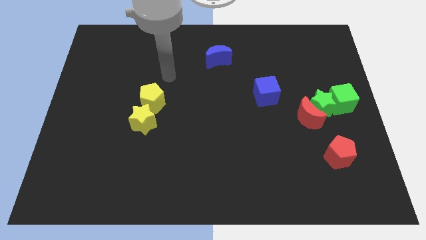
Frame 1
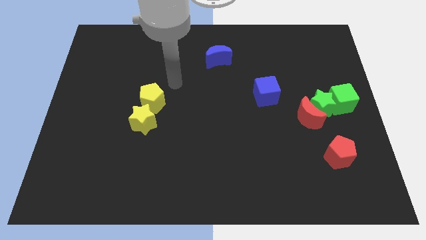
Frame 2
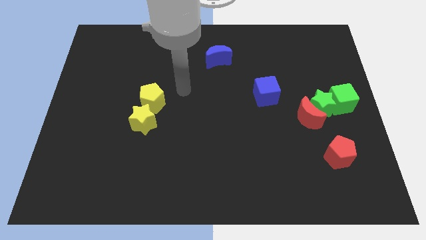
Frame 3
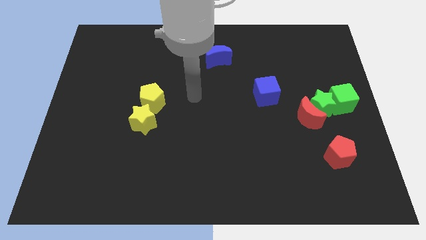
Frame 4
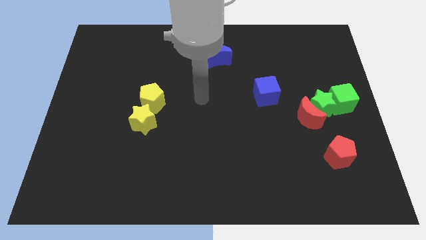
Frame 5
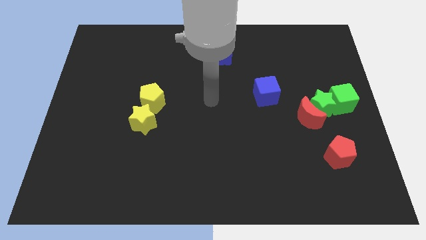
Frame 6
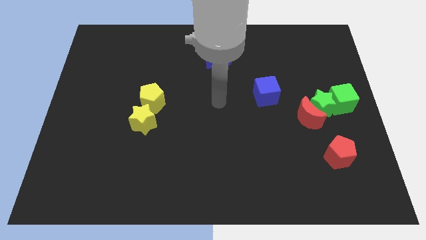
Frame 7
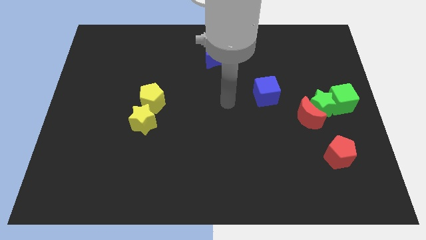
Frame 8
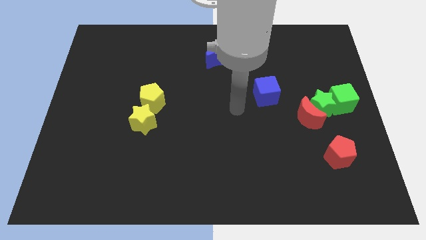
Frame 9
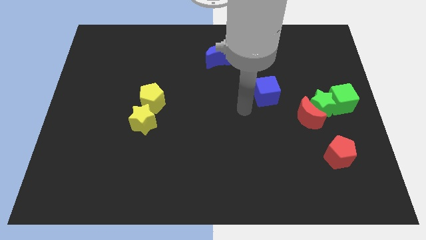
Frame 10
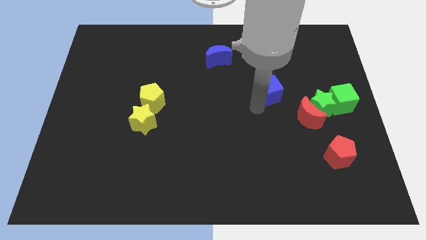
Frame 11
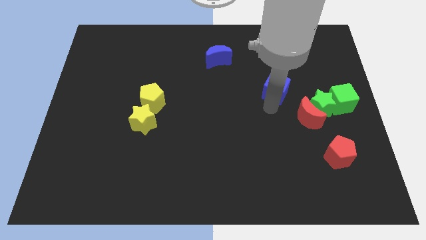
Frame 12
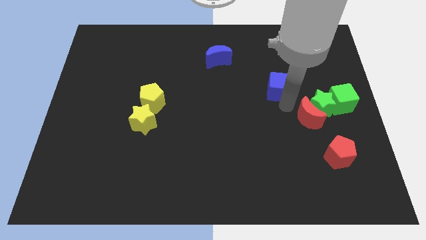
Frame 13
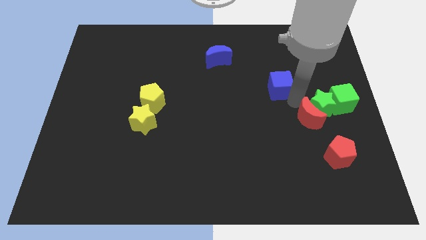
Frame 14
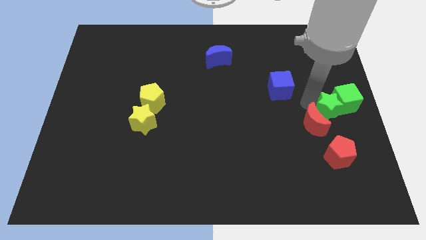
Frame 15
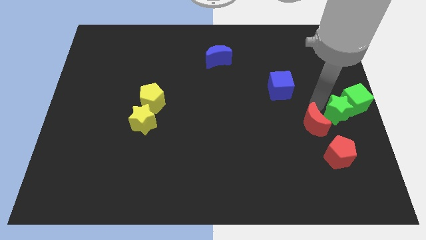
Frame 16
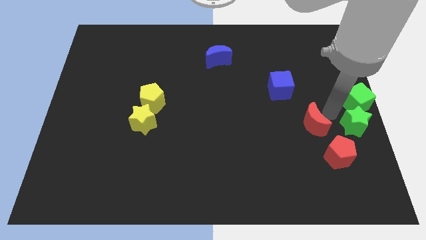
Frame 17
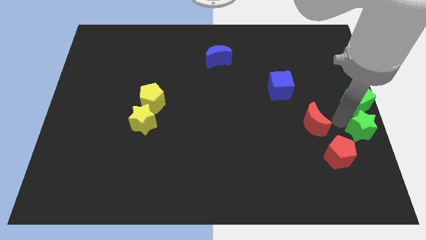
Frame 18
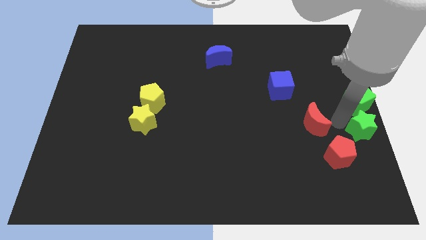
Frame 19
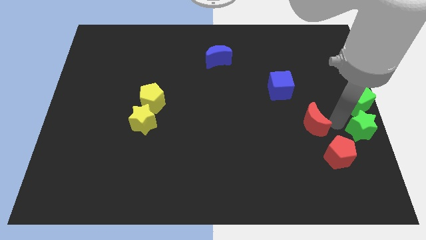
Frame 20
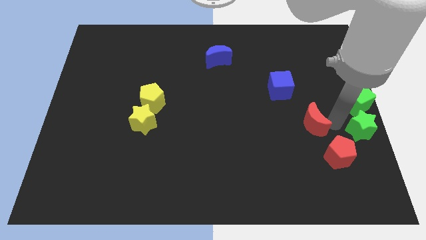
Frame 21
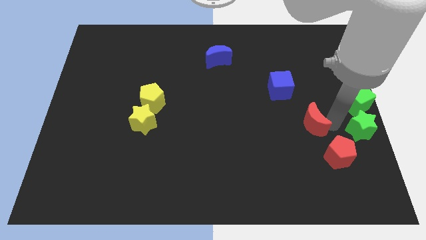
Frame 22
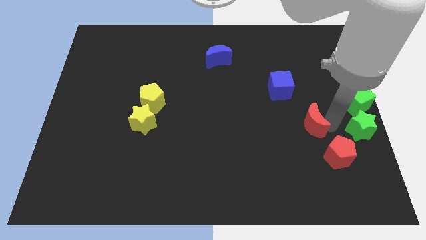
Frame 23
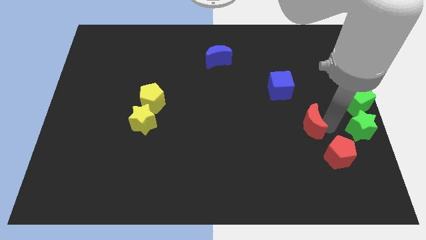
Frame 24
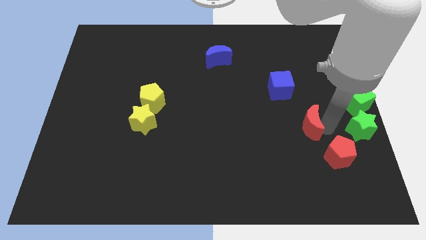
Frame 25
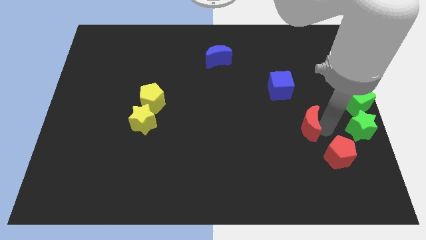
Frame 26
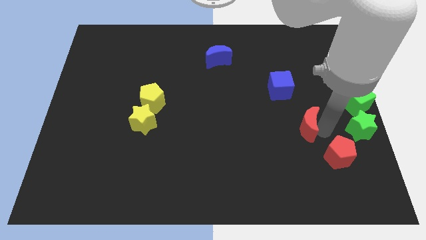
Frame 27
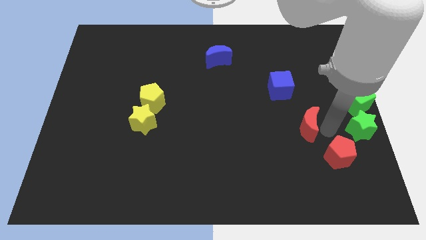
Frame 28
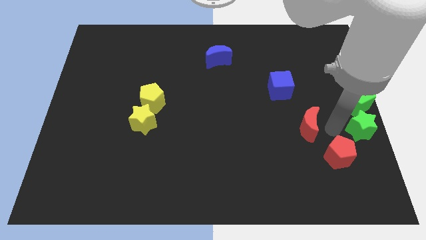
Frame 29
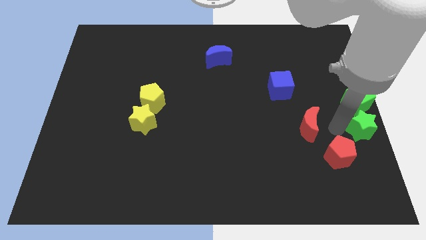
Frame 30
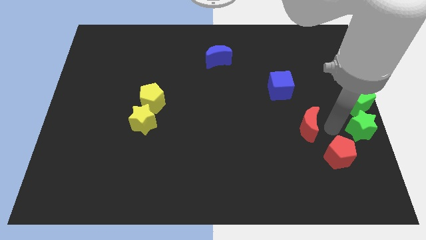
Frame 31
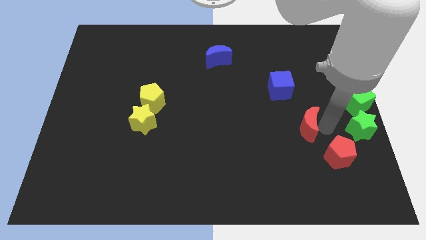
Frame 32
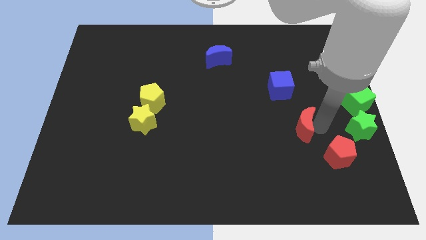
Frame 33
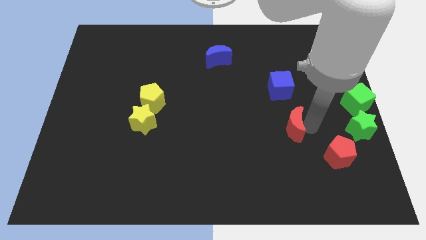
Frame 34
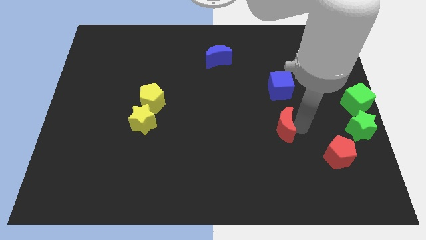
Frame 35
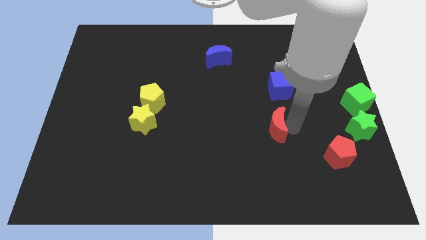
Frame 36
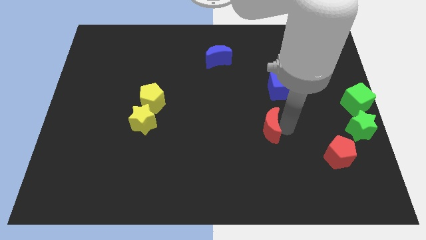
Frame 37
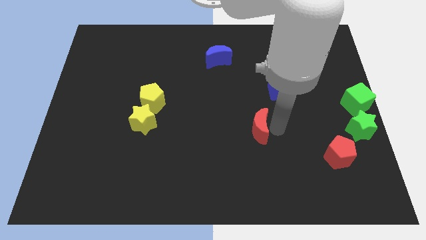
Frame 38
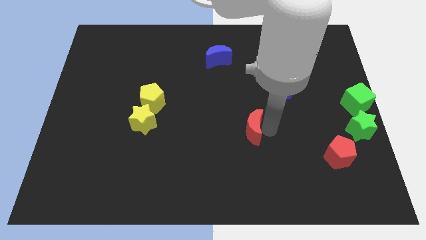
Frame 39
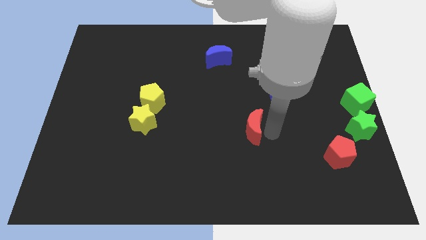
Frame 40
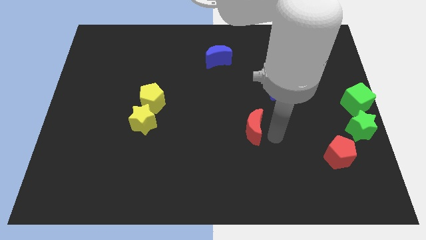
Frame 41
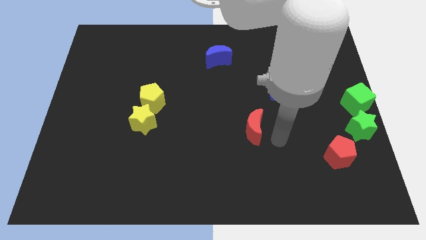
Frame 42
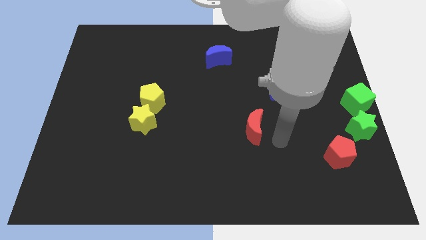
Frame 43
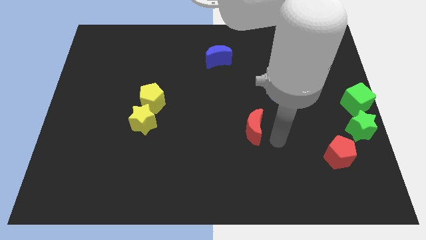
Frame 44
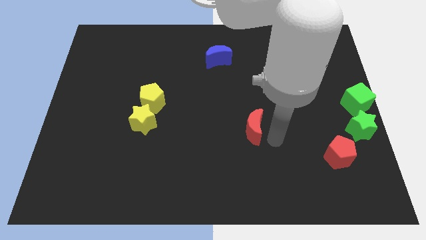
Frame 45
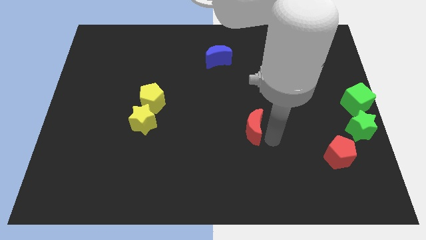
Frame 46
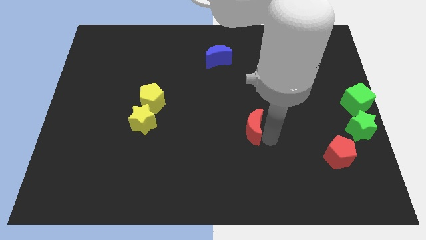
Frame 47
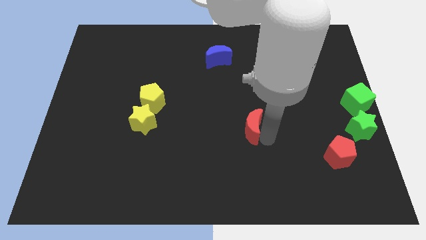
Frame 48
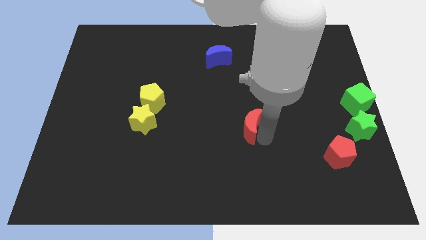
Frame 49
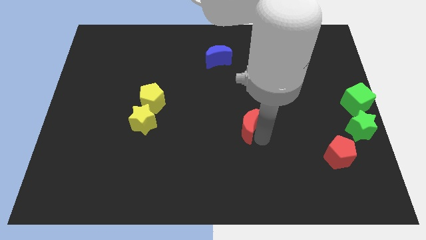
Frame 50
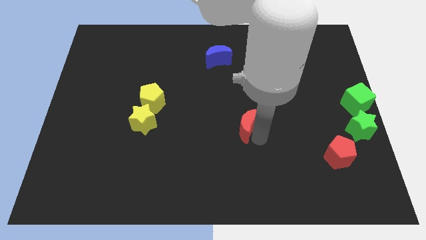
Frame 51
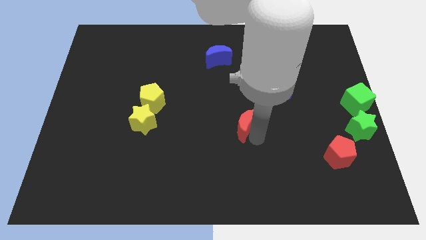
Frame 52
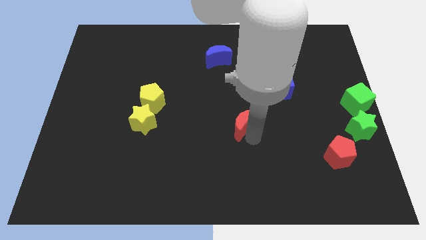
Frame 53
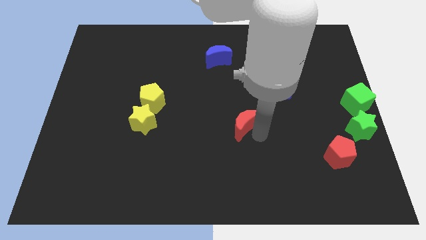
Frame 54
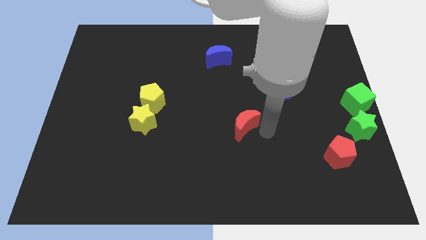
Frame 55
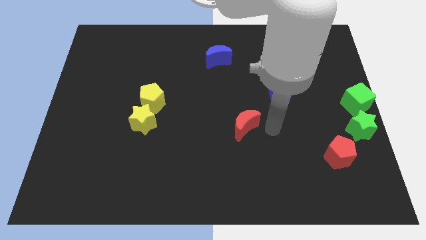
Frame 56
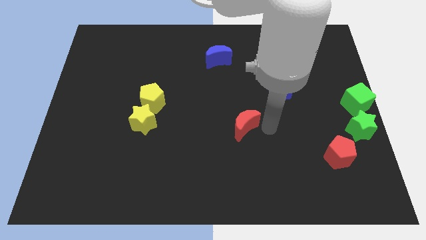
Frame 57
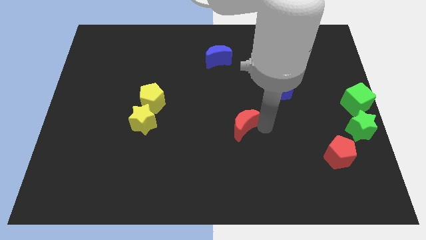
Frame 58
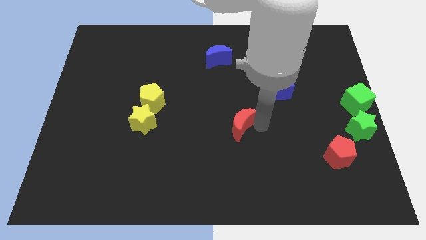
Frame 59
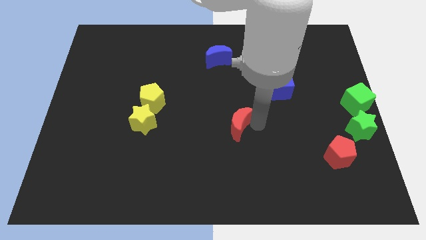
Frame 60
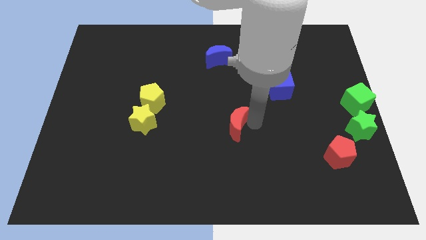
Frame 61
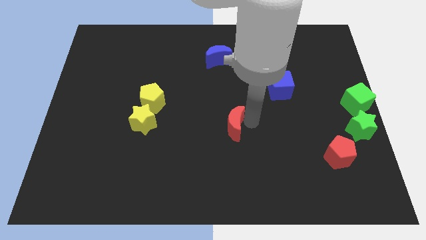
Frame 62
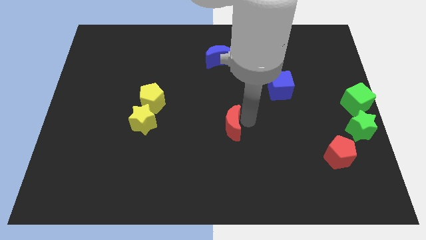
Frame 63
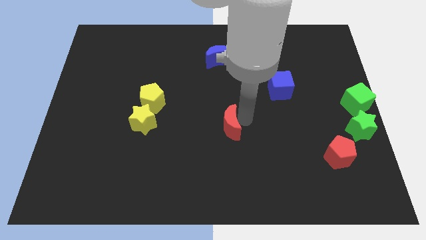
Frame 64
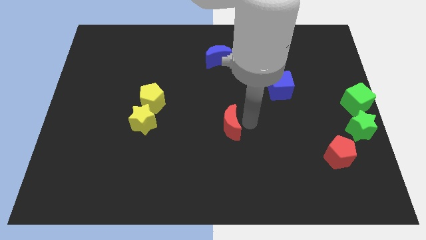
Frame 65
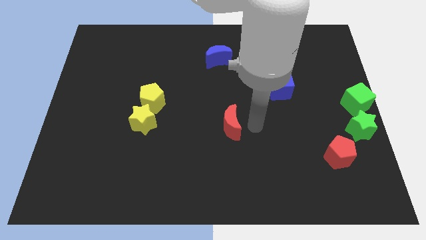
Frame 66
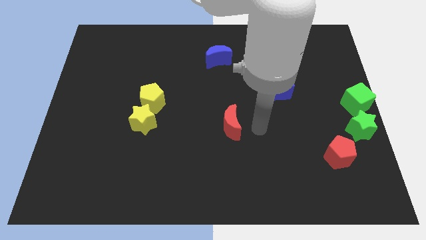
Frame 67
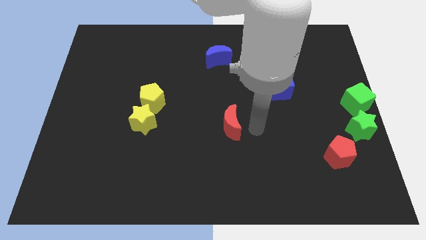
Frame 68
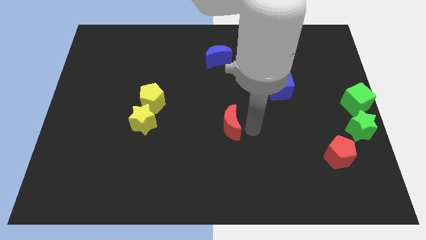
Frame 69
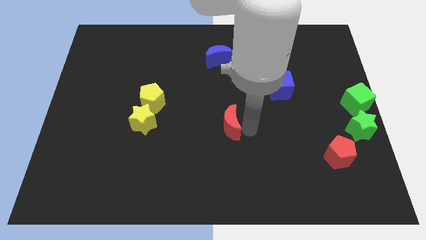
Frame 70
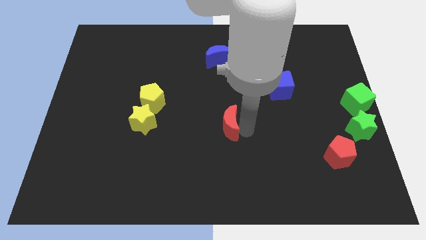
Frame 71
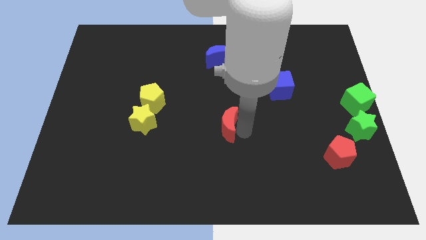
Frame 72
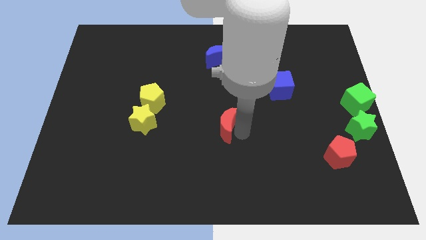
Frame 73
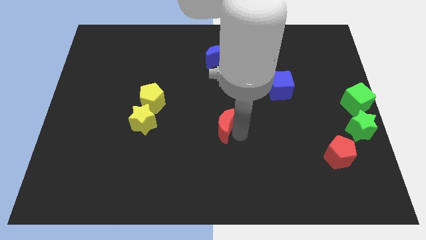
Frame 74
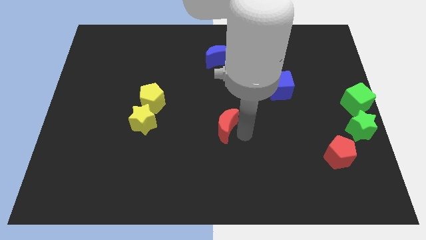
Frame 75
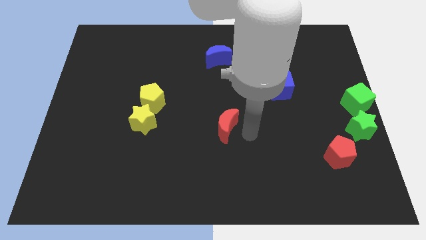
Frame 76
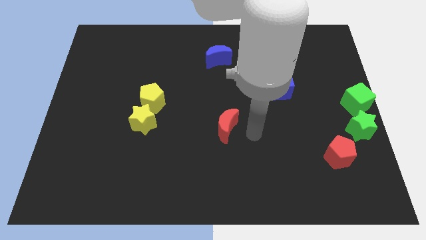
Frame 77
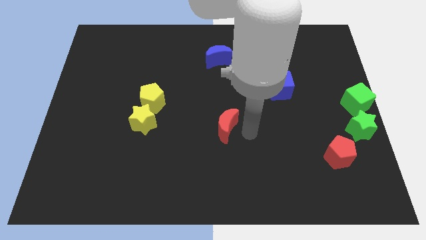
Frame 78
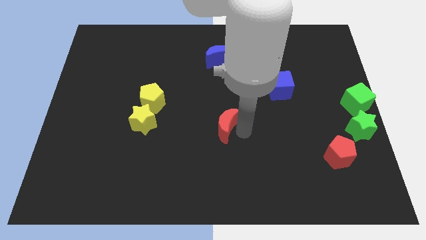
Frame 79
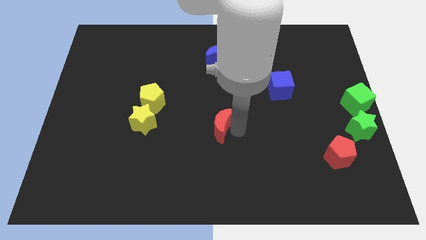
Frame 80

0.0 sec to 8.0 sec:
move the red moon to the left

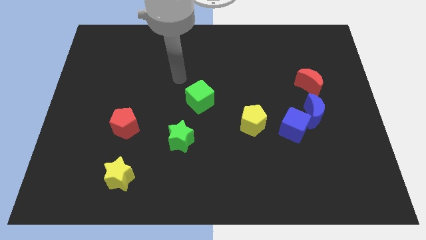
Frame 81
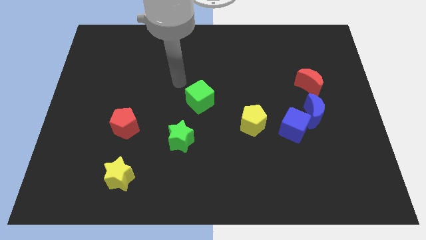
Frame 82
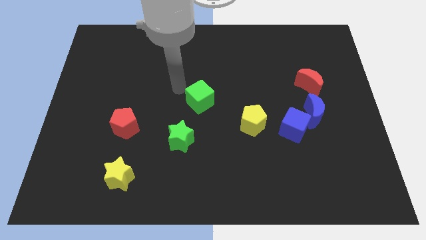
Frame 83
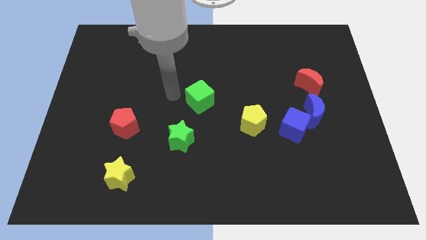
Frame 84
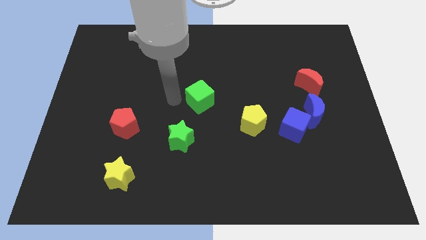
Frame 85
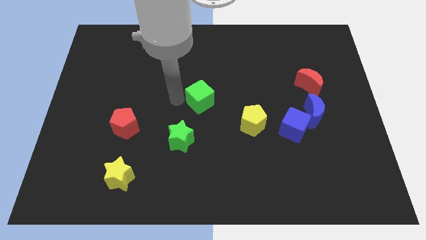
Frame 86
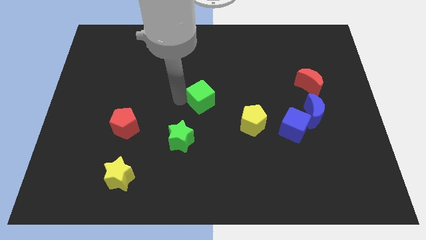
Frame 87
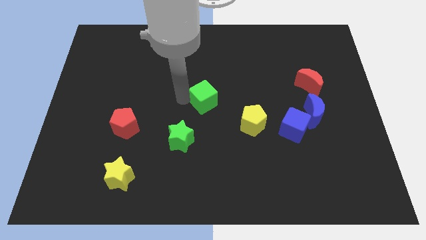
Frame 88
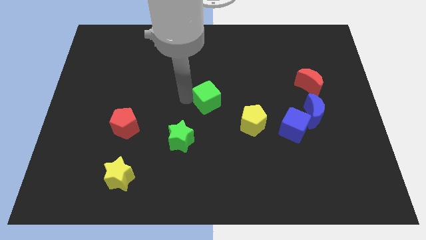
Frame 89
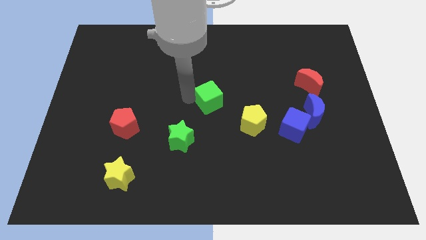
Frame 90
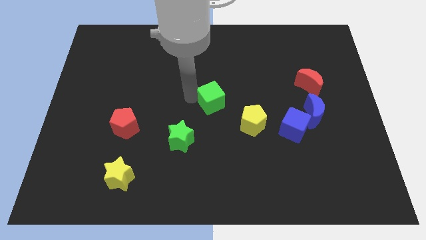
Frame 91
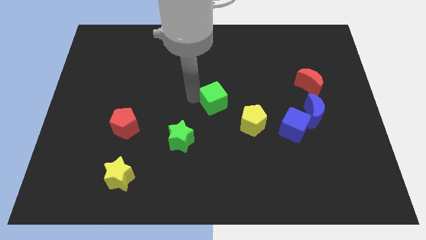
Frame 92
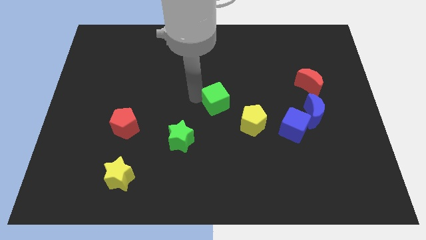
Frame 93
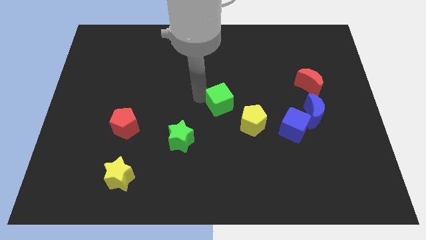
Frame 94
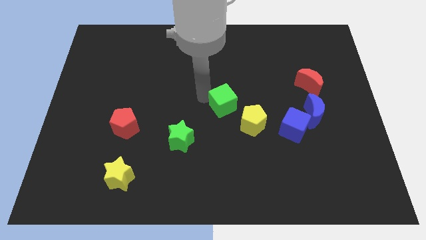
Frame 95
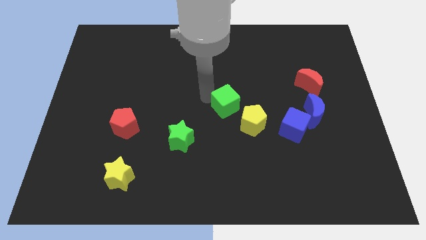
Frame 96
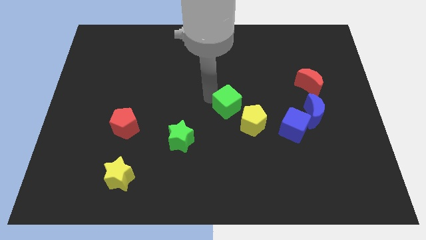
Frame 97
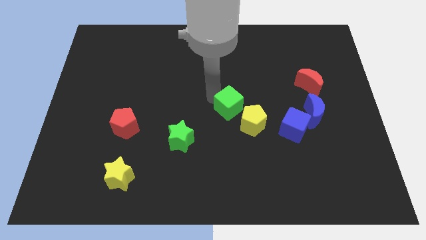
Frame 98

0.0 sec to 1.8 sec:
slide the green cube to the right somewhat
